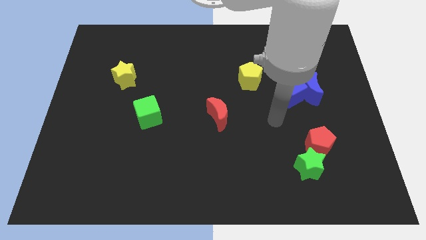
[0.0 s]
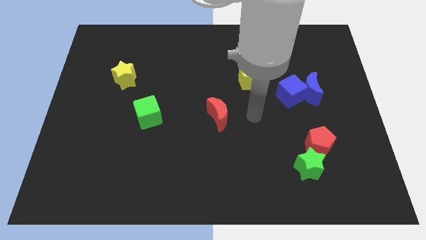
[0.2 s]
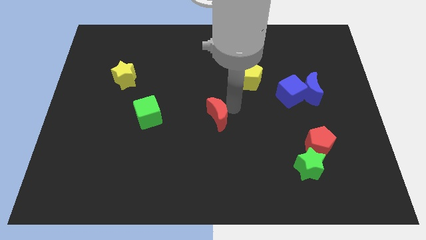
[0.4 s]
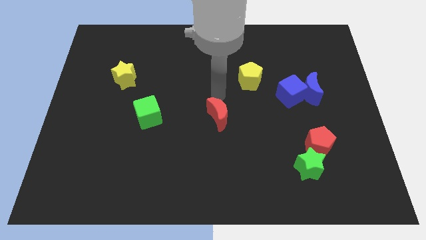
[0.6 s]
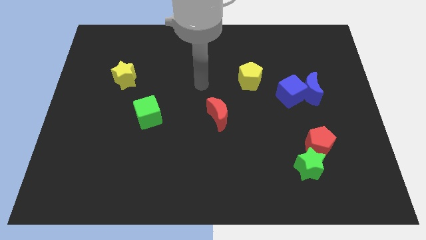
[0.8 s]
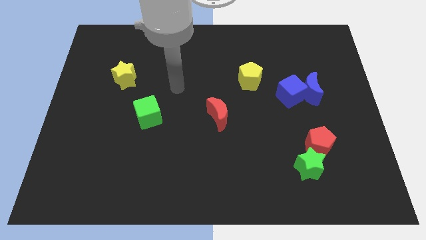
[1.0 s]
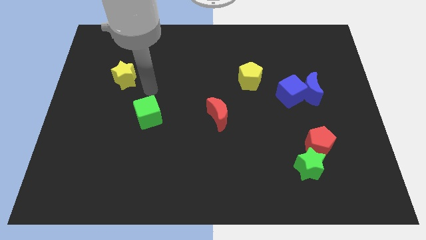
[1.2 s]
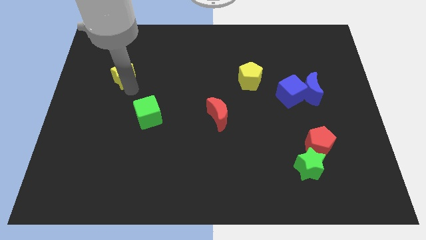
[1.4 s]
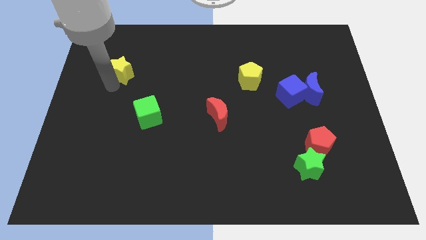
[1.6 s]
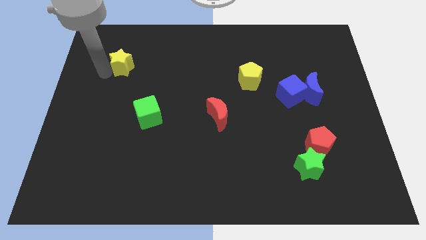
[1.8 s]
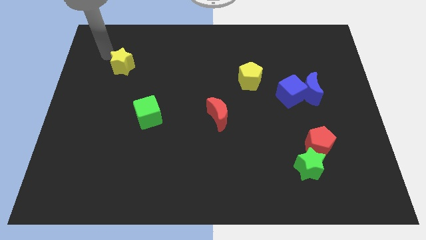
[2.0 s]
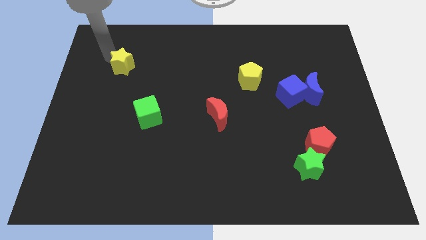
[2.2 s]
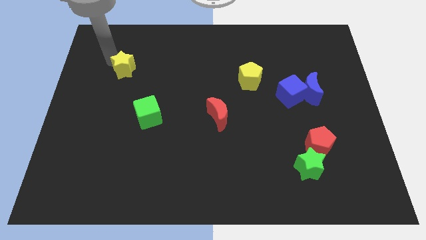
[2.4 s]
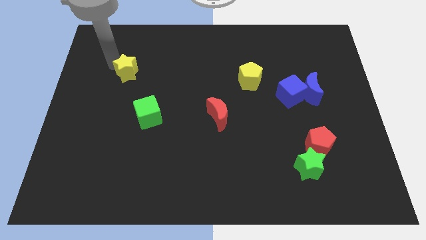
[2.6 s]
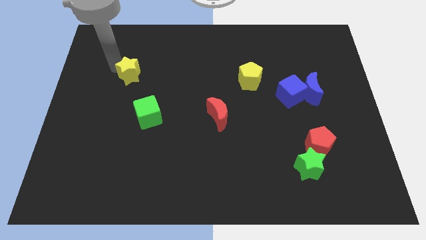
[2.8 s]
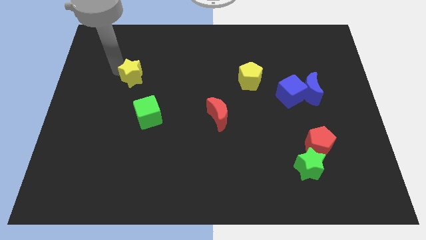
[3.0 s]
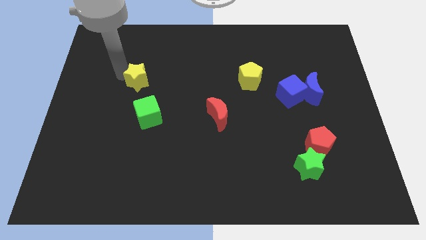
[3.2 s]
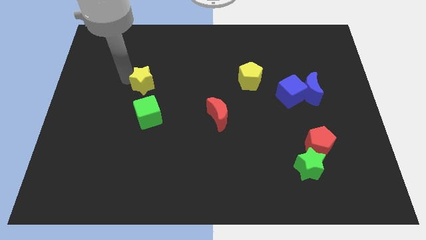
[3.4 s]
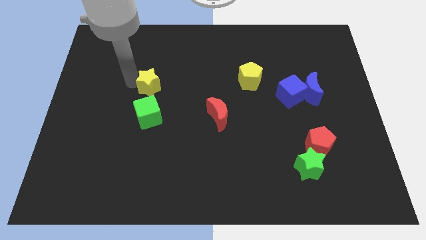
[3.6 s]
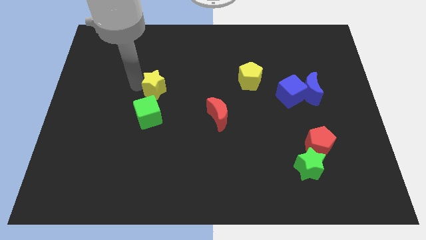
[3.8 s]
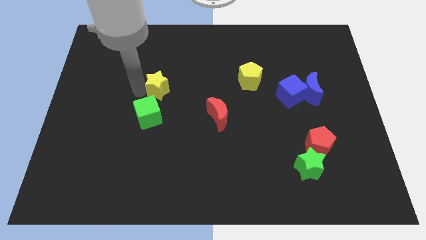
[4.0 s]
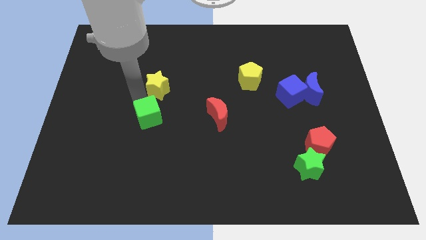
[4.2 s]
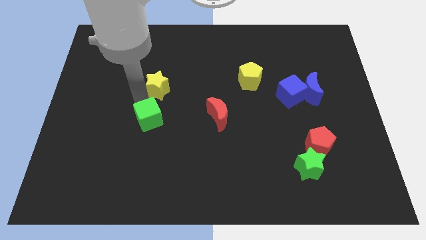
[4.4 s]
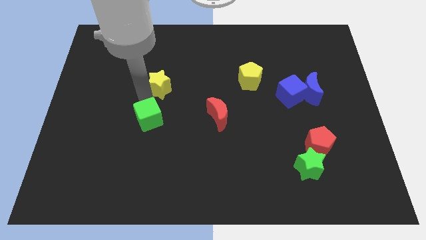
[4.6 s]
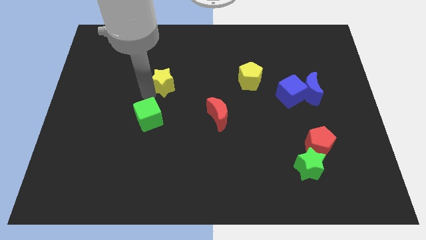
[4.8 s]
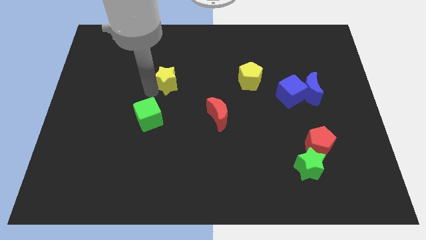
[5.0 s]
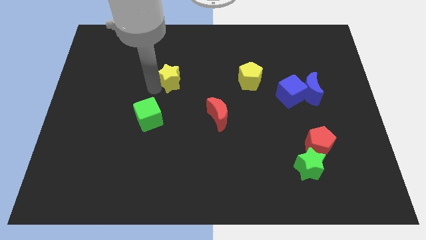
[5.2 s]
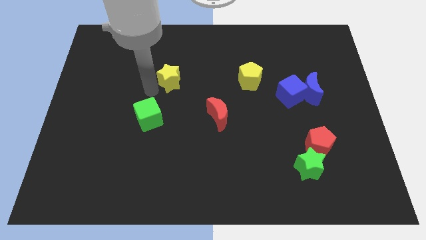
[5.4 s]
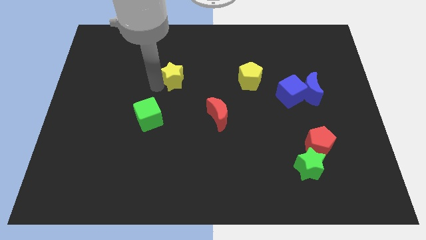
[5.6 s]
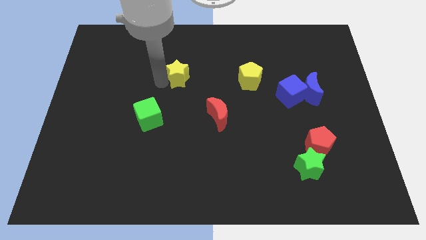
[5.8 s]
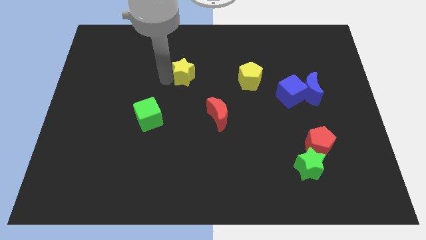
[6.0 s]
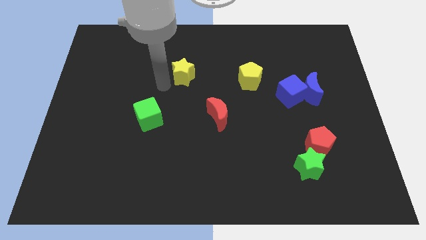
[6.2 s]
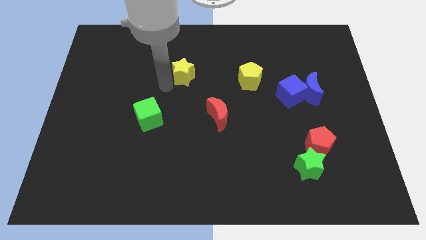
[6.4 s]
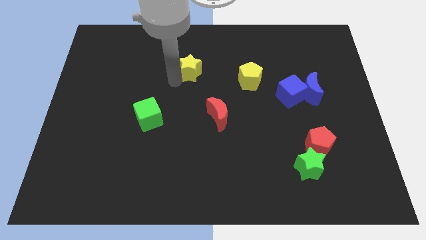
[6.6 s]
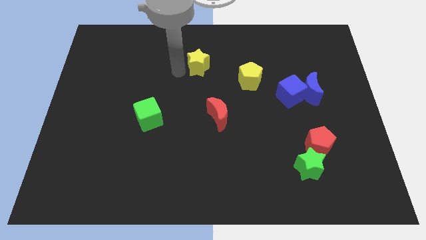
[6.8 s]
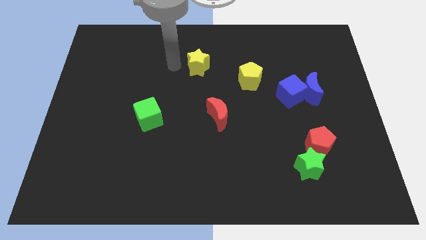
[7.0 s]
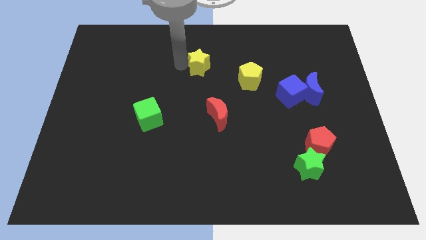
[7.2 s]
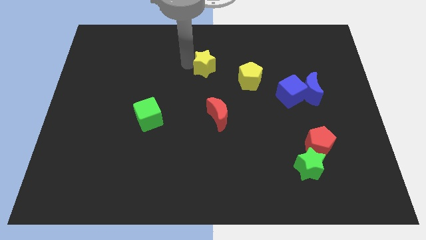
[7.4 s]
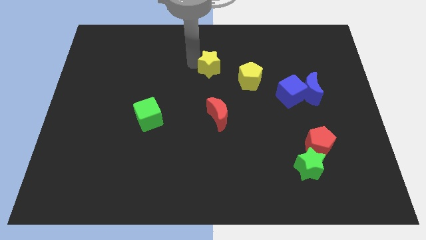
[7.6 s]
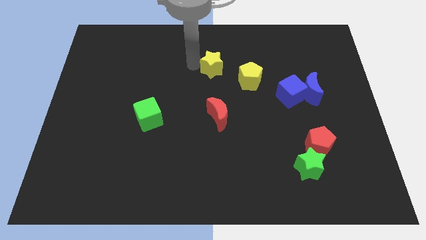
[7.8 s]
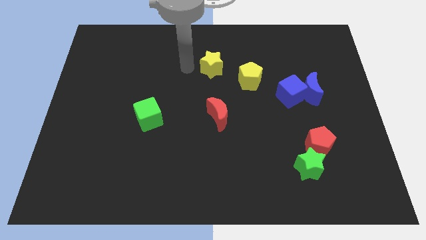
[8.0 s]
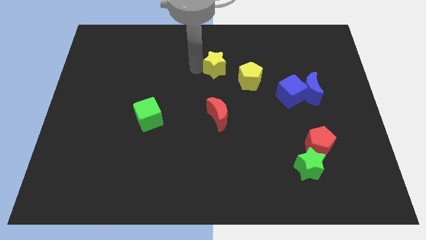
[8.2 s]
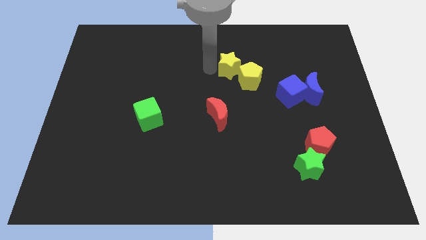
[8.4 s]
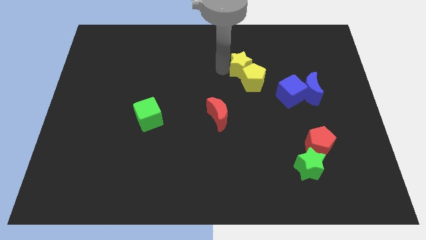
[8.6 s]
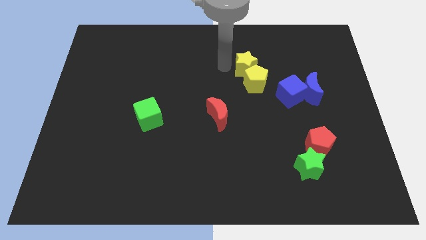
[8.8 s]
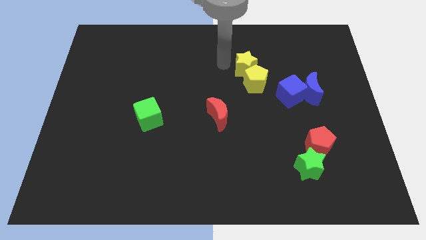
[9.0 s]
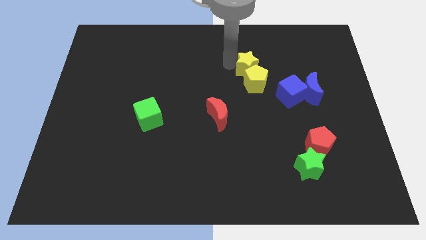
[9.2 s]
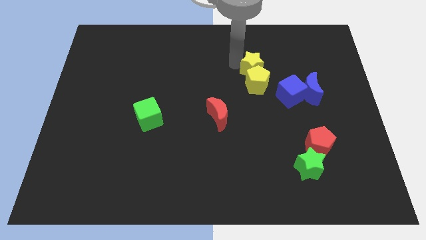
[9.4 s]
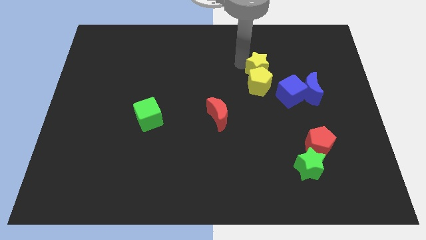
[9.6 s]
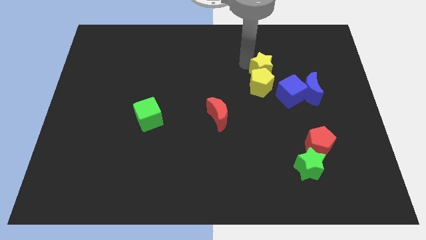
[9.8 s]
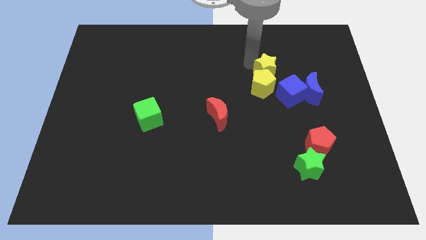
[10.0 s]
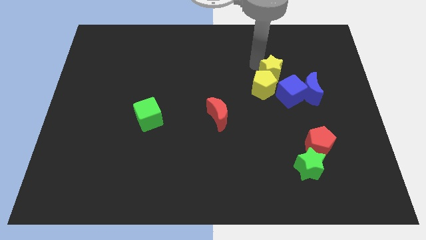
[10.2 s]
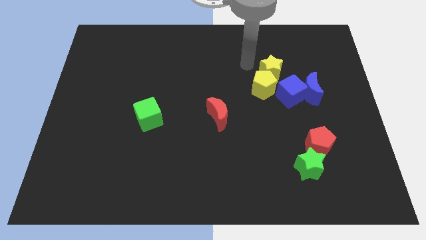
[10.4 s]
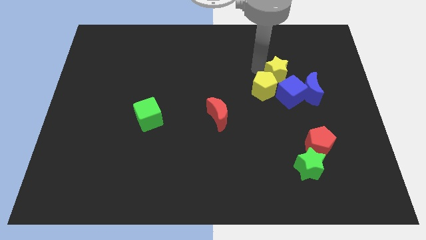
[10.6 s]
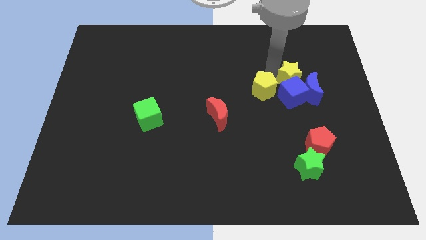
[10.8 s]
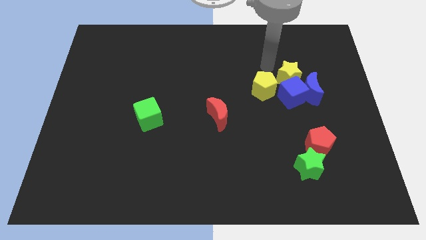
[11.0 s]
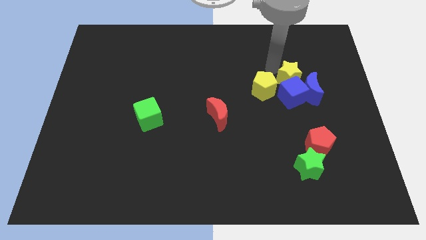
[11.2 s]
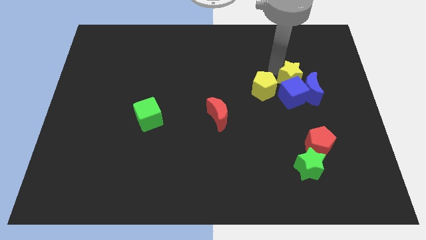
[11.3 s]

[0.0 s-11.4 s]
slide the yellow star next to the blue moon

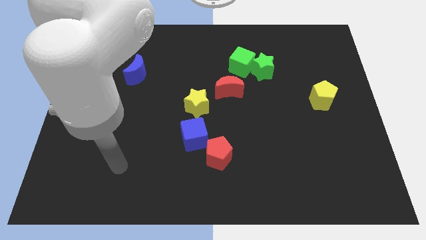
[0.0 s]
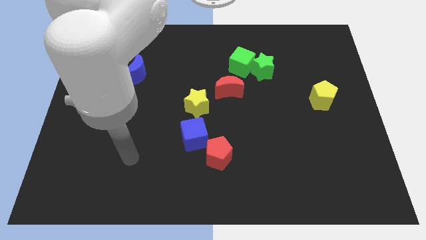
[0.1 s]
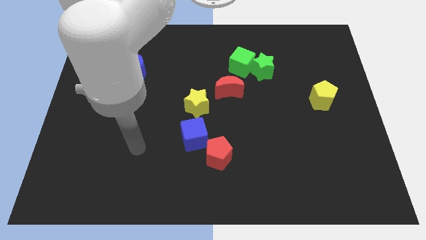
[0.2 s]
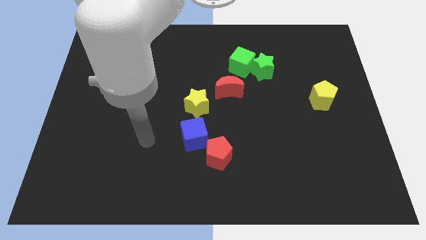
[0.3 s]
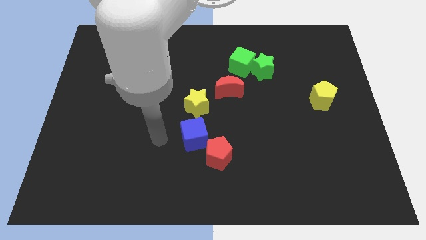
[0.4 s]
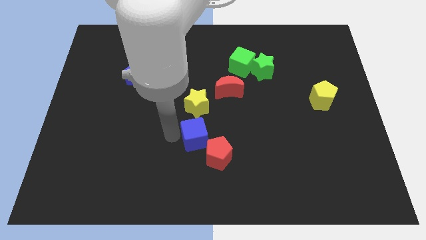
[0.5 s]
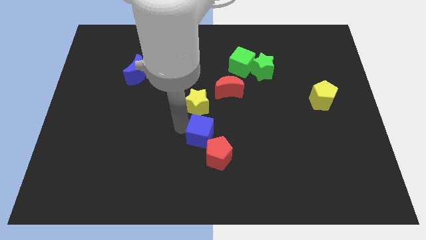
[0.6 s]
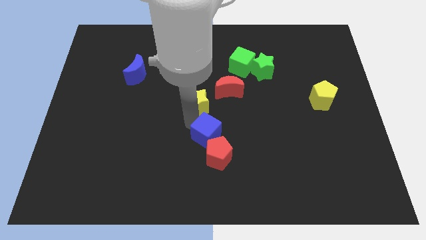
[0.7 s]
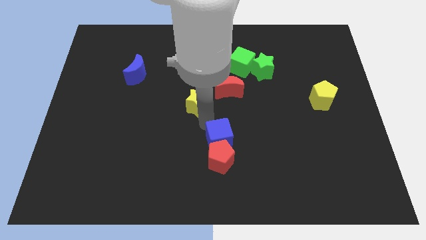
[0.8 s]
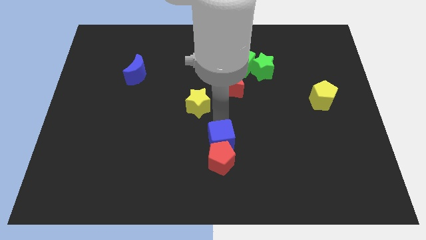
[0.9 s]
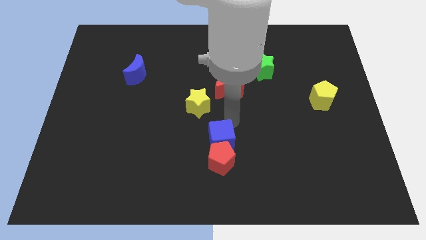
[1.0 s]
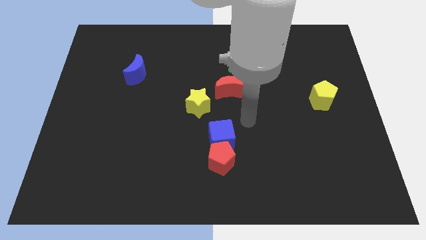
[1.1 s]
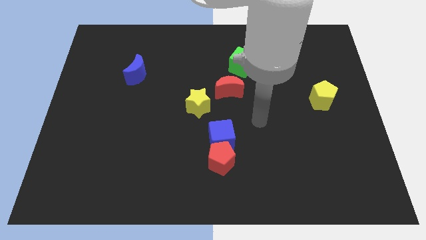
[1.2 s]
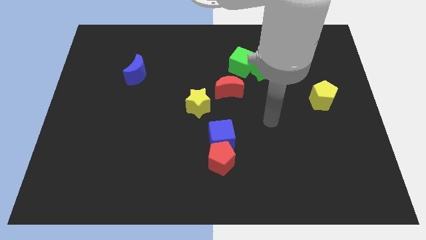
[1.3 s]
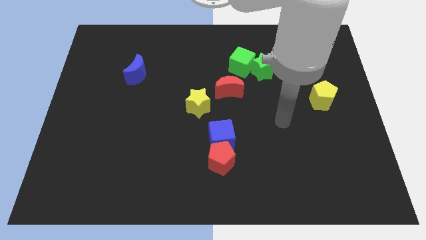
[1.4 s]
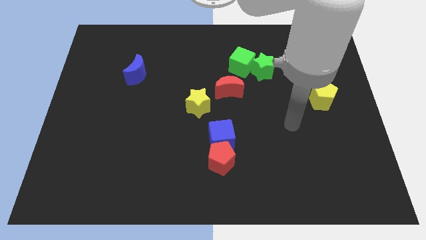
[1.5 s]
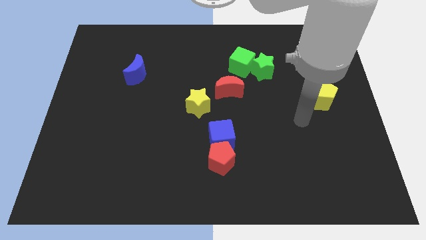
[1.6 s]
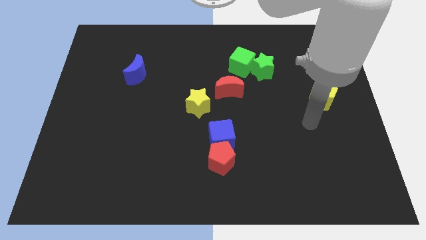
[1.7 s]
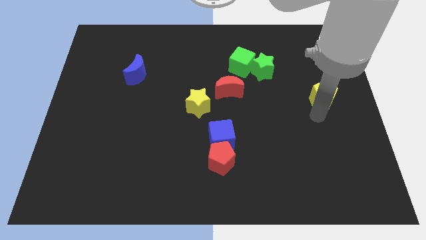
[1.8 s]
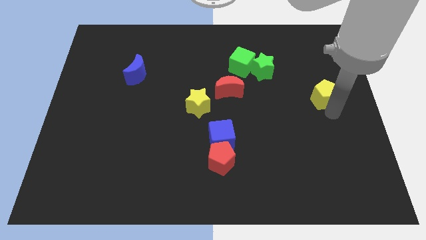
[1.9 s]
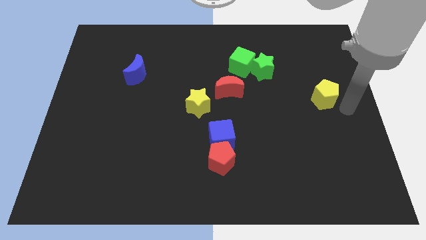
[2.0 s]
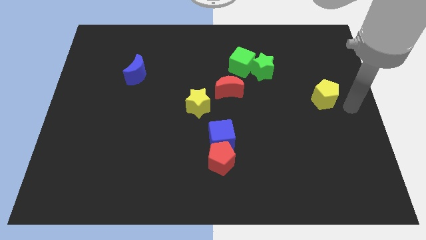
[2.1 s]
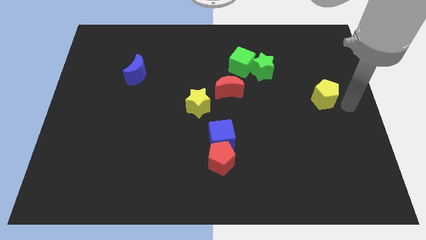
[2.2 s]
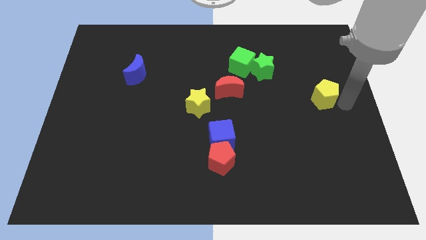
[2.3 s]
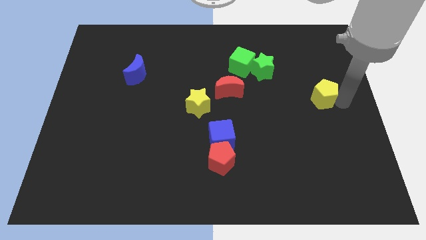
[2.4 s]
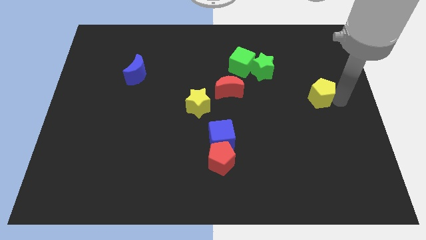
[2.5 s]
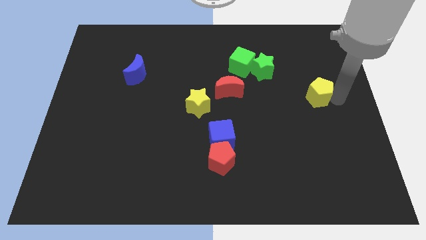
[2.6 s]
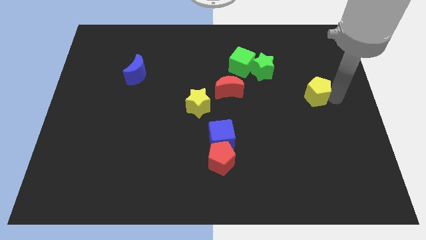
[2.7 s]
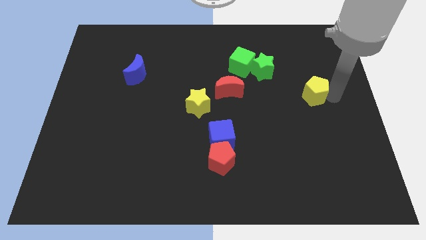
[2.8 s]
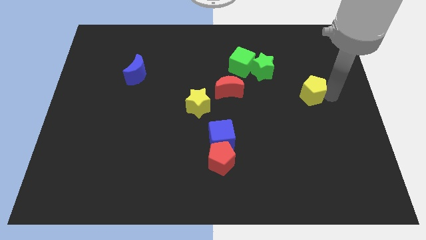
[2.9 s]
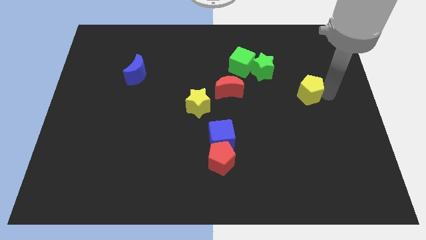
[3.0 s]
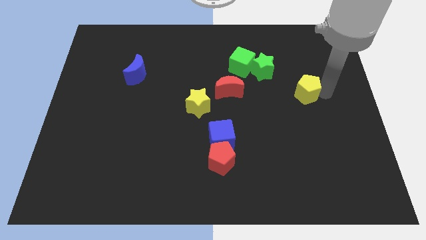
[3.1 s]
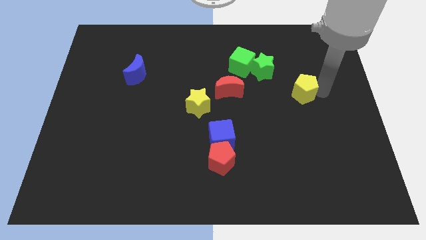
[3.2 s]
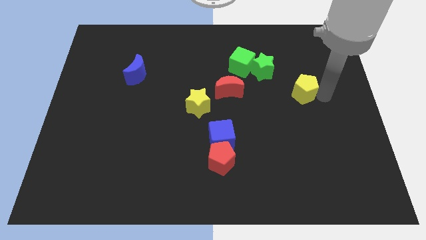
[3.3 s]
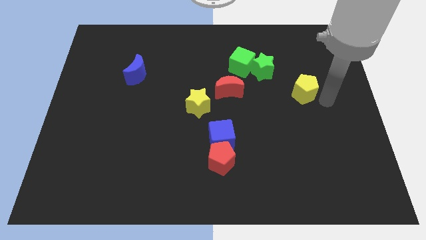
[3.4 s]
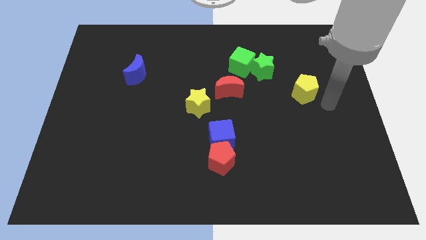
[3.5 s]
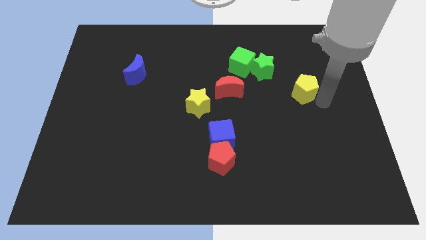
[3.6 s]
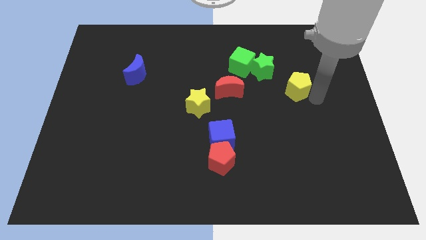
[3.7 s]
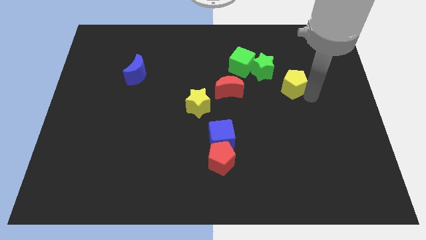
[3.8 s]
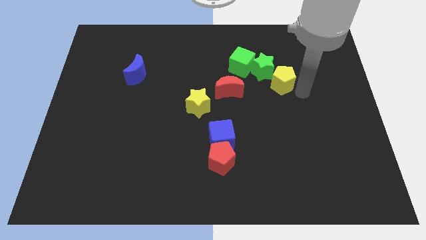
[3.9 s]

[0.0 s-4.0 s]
push the yellow pentagon close to the green star
